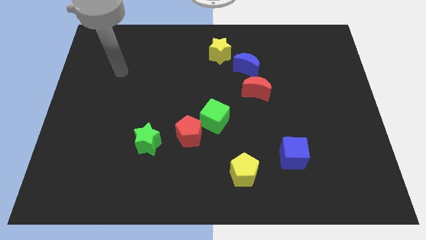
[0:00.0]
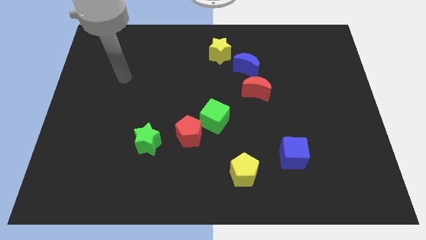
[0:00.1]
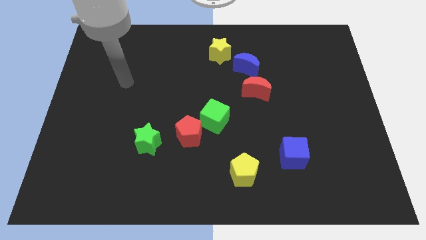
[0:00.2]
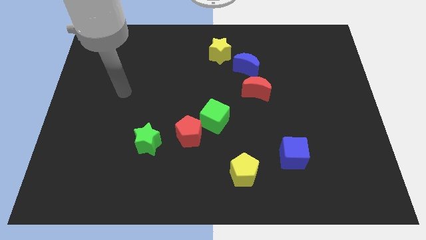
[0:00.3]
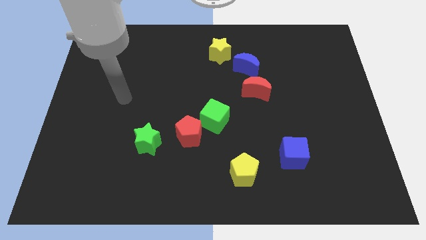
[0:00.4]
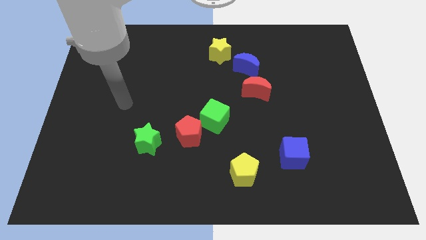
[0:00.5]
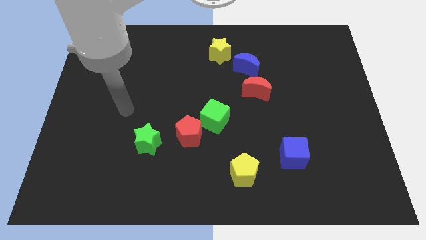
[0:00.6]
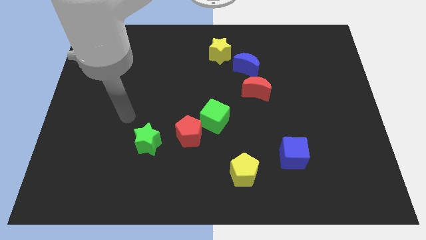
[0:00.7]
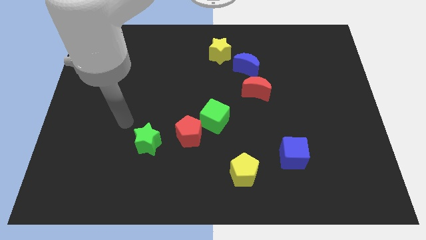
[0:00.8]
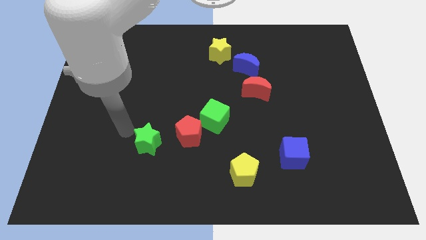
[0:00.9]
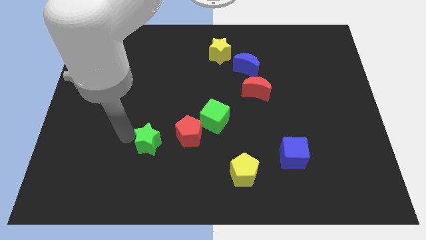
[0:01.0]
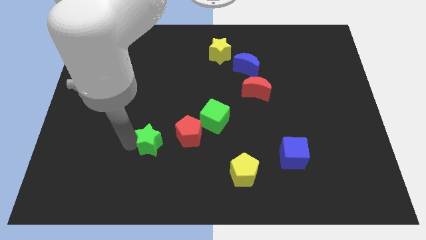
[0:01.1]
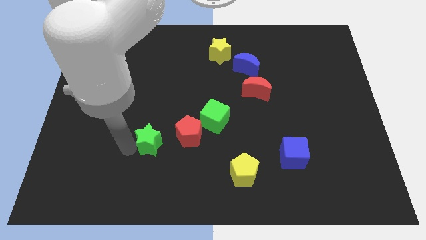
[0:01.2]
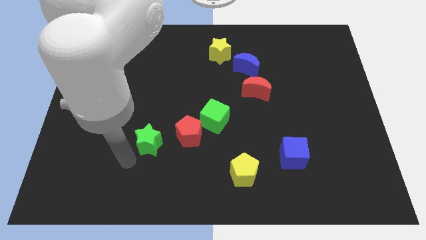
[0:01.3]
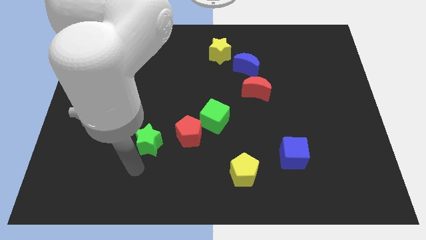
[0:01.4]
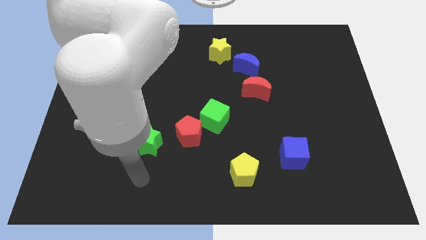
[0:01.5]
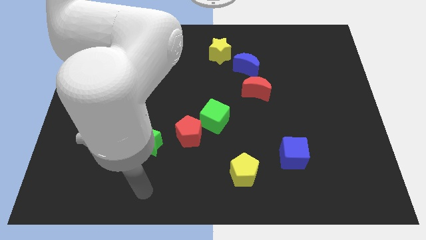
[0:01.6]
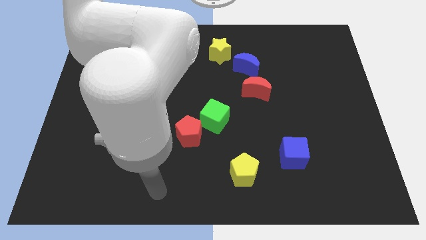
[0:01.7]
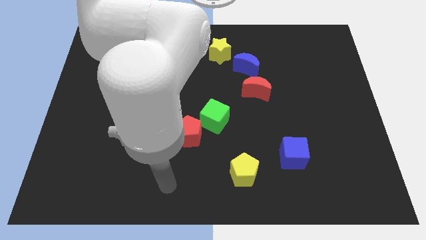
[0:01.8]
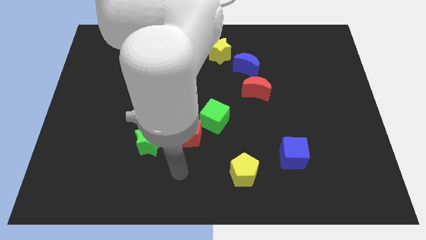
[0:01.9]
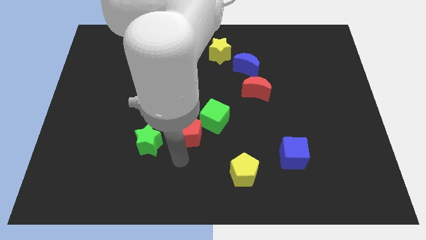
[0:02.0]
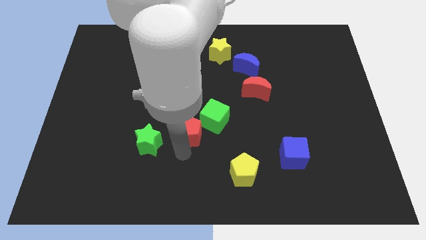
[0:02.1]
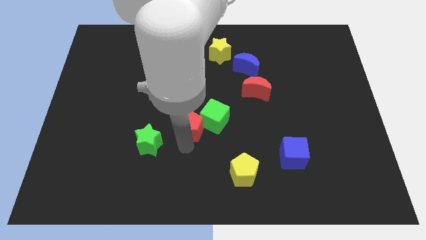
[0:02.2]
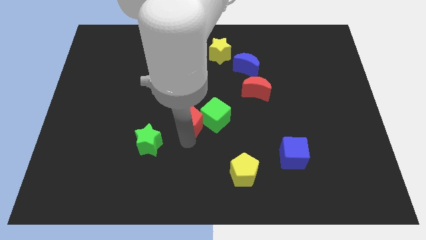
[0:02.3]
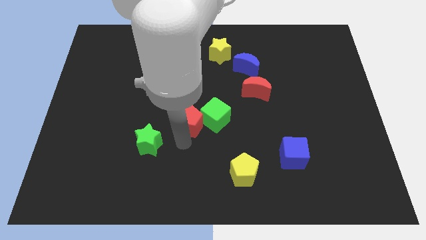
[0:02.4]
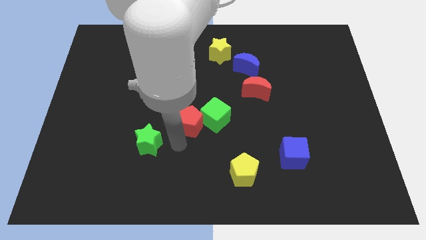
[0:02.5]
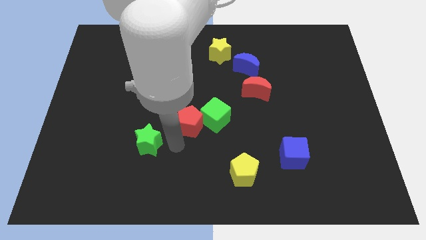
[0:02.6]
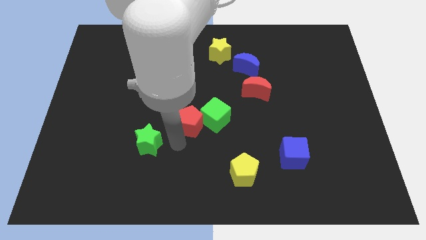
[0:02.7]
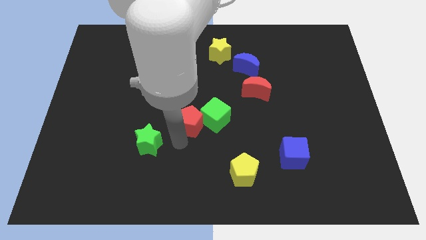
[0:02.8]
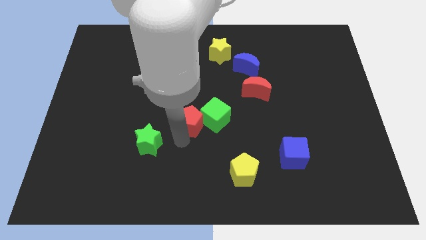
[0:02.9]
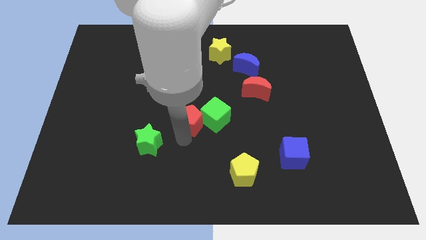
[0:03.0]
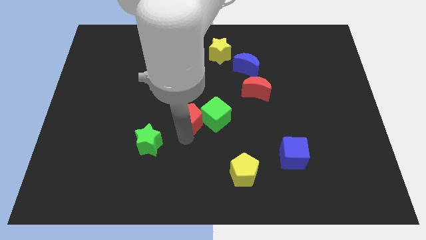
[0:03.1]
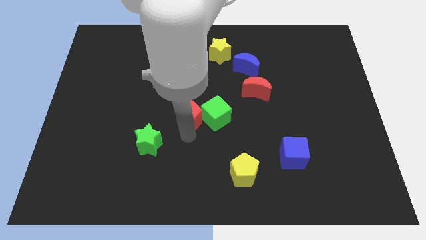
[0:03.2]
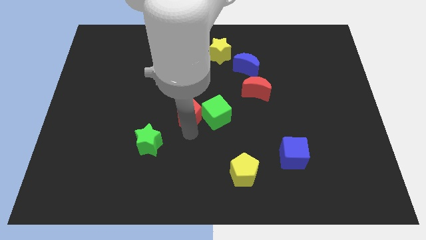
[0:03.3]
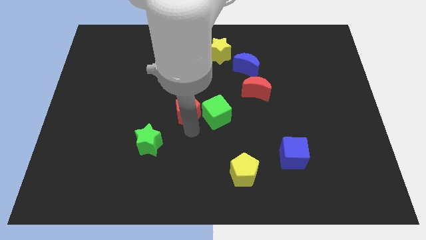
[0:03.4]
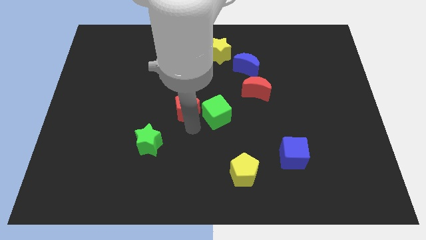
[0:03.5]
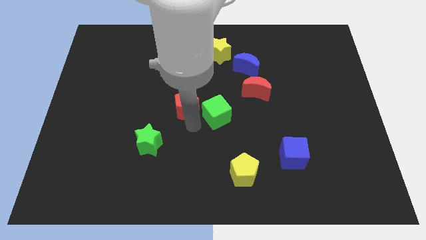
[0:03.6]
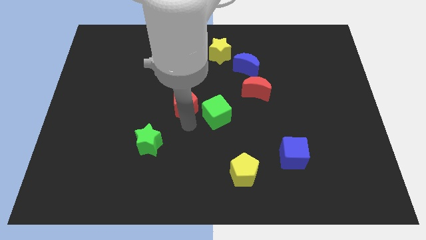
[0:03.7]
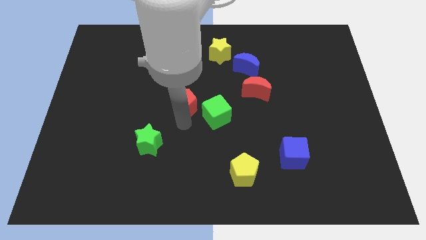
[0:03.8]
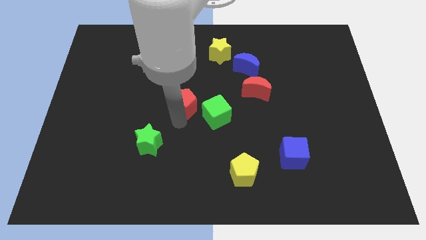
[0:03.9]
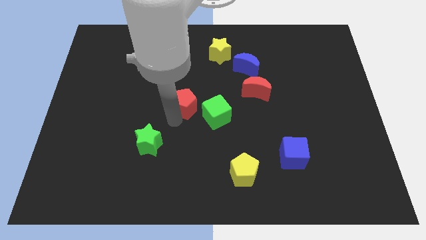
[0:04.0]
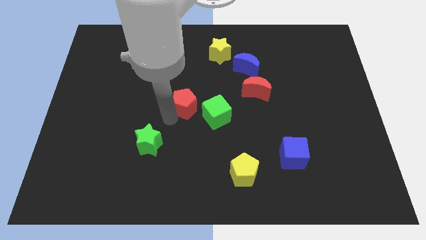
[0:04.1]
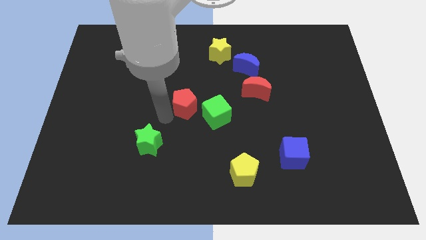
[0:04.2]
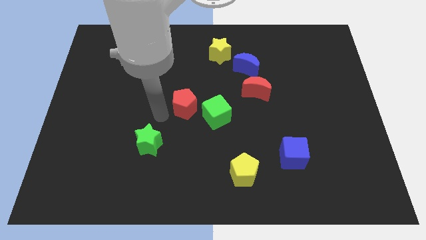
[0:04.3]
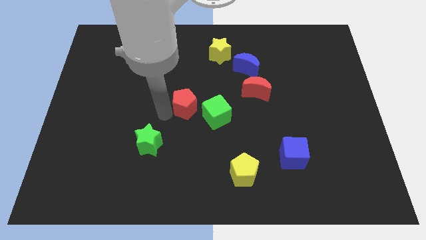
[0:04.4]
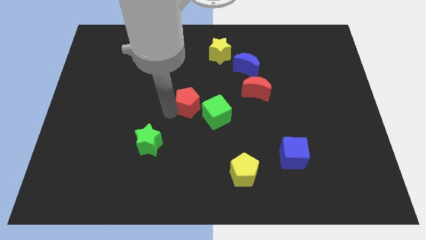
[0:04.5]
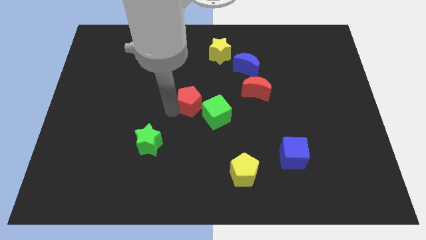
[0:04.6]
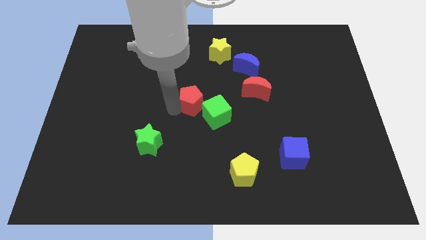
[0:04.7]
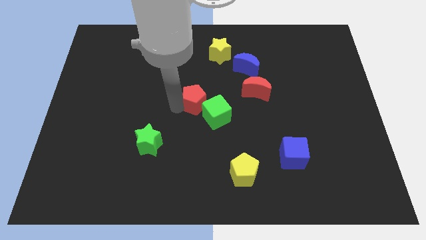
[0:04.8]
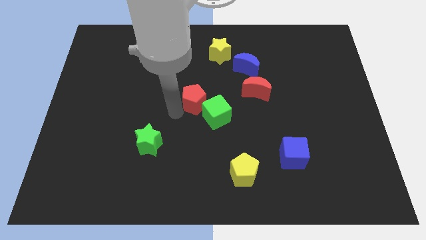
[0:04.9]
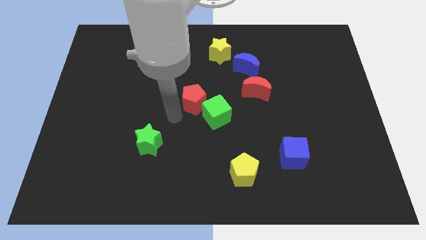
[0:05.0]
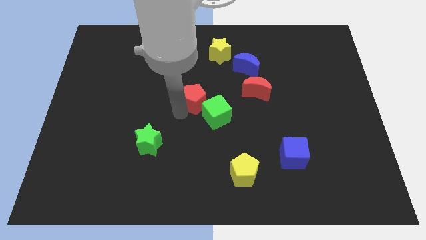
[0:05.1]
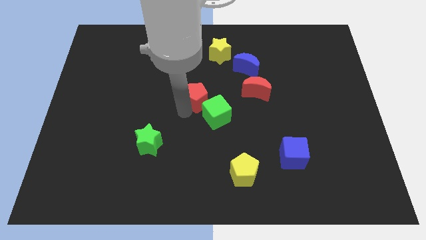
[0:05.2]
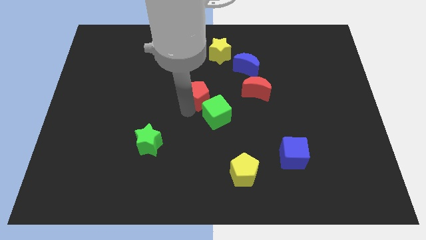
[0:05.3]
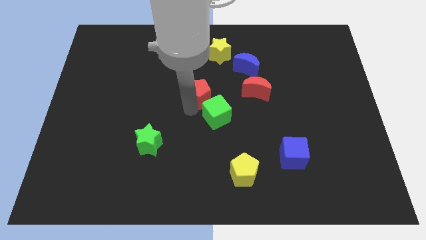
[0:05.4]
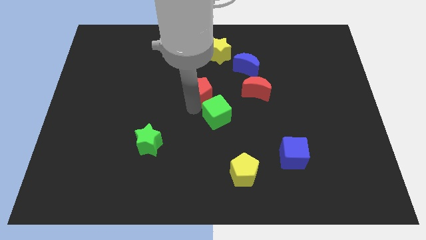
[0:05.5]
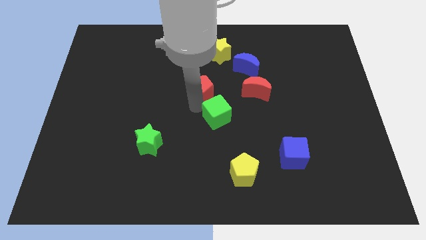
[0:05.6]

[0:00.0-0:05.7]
move the red pentagon below the yellow star

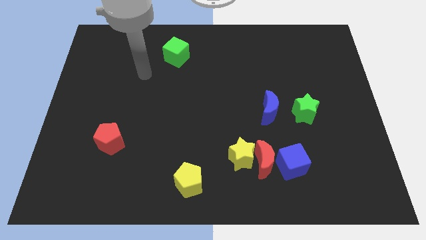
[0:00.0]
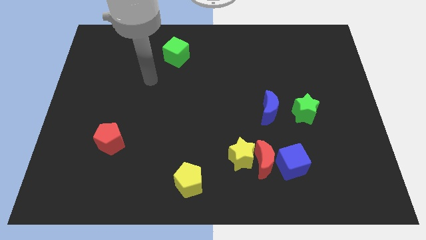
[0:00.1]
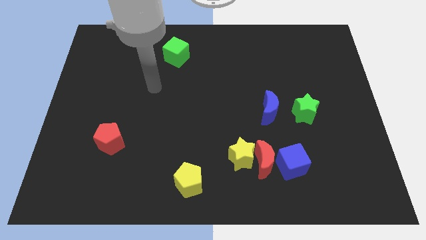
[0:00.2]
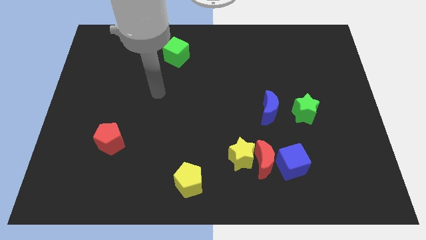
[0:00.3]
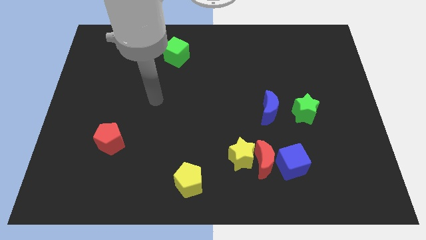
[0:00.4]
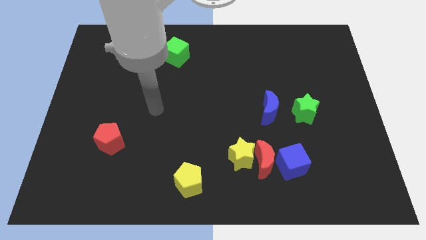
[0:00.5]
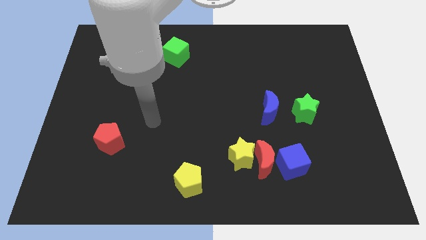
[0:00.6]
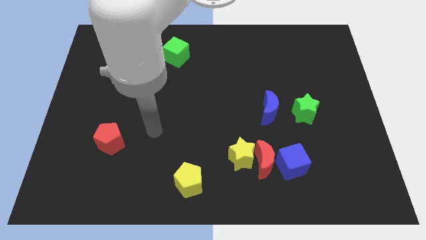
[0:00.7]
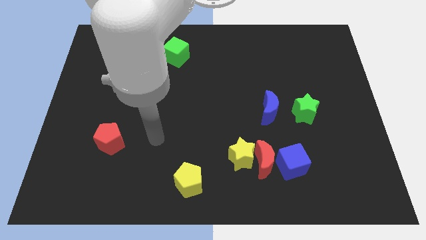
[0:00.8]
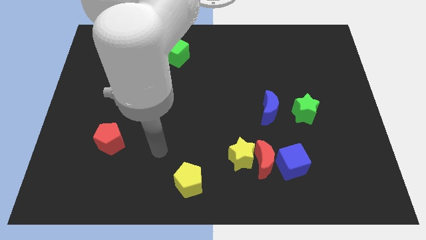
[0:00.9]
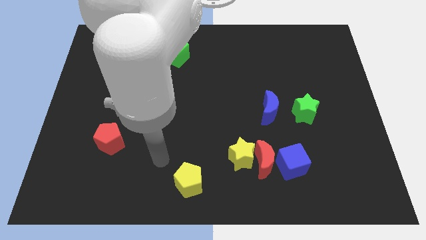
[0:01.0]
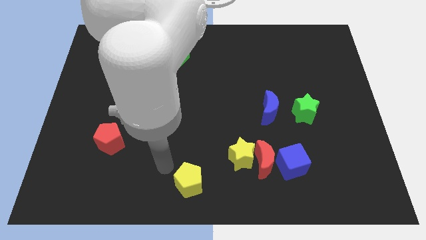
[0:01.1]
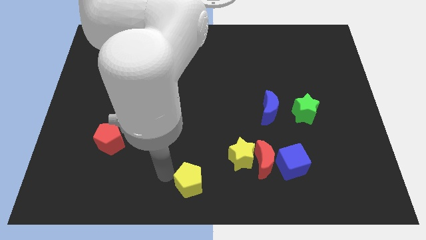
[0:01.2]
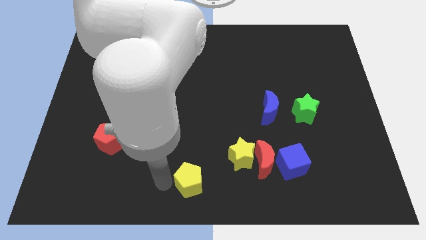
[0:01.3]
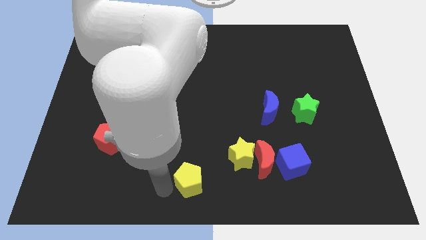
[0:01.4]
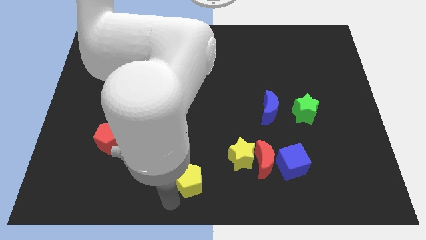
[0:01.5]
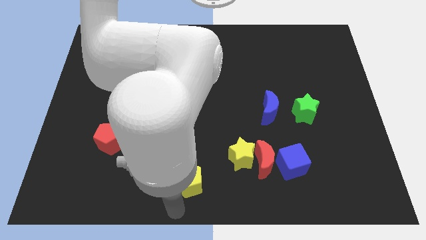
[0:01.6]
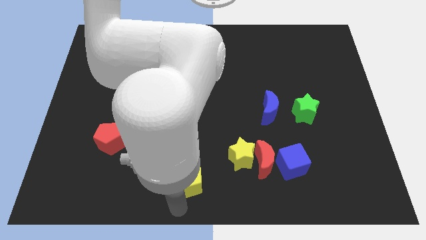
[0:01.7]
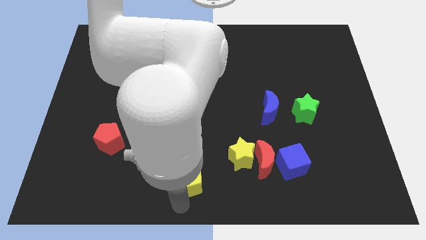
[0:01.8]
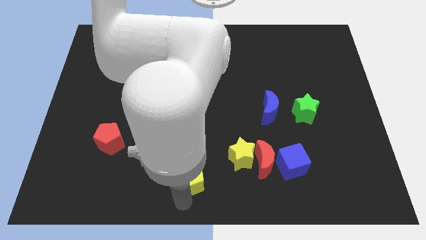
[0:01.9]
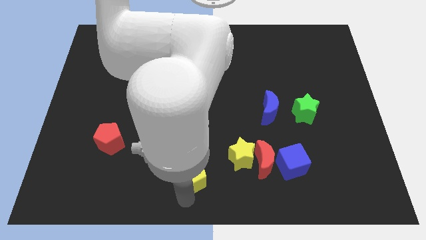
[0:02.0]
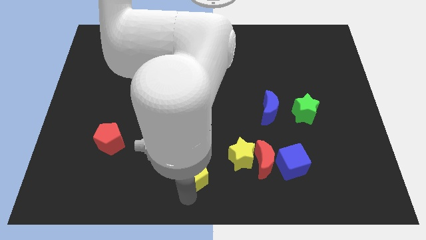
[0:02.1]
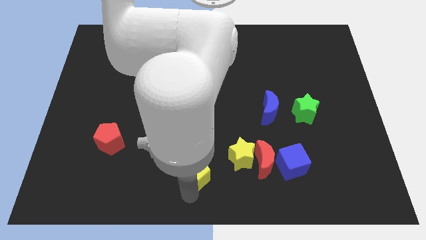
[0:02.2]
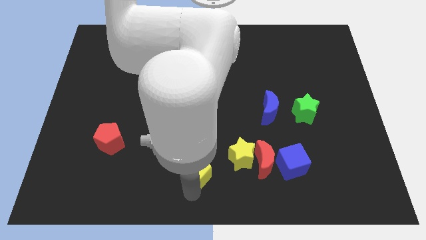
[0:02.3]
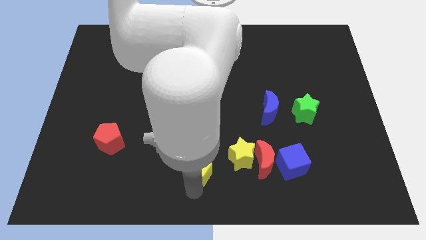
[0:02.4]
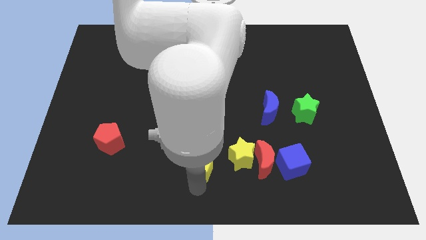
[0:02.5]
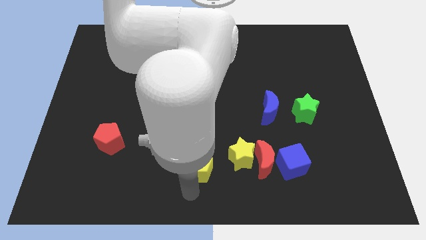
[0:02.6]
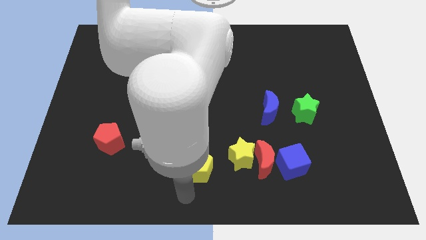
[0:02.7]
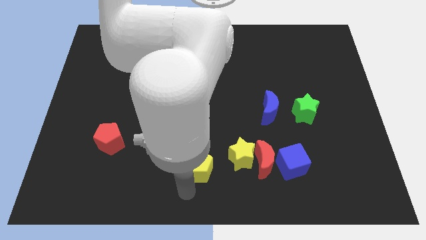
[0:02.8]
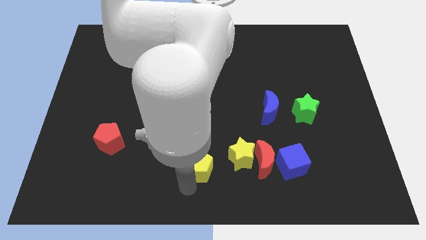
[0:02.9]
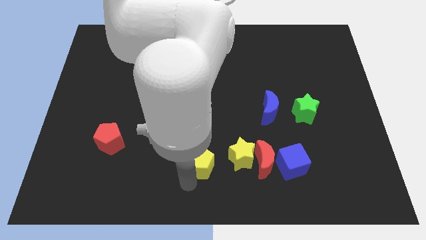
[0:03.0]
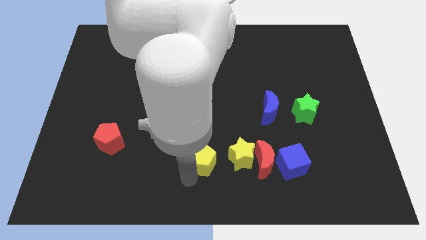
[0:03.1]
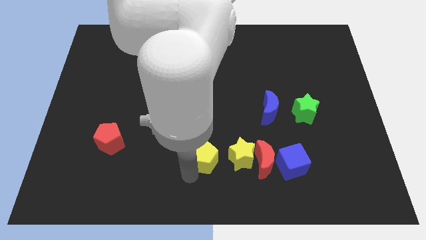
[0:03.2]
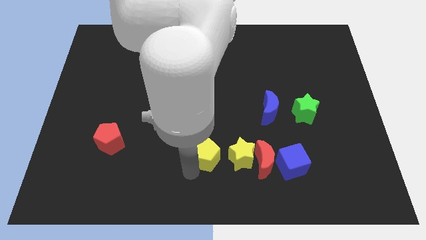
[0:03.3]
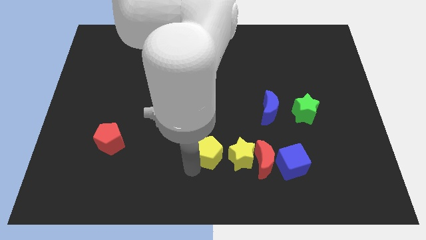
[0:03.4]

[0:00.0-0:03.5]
push the yellow pentagon diagonally up and to the left of the yellow star
